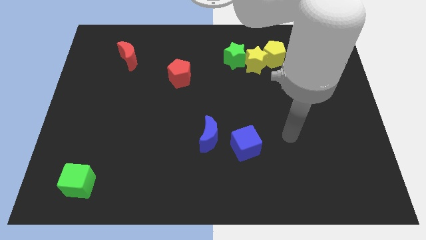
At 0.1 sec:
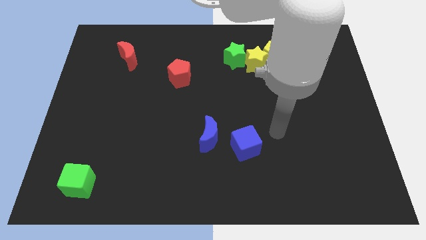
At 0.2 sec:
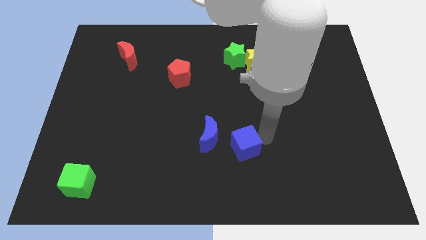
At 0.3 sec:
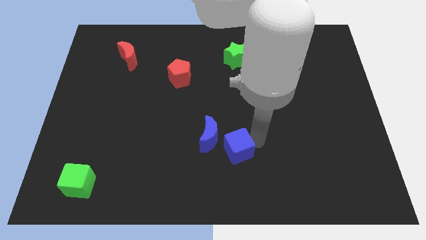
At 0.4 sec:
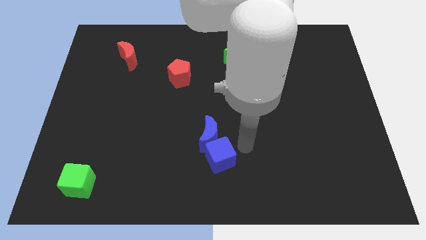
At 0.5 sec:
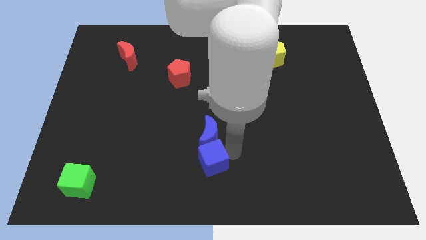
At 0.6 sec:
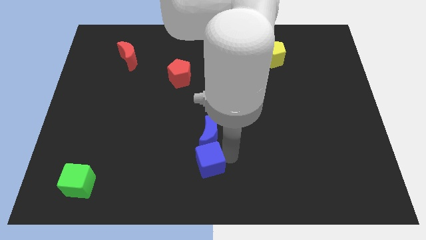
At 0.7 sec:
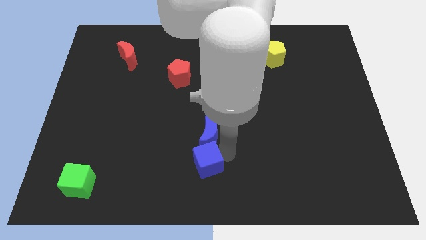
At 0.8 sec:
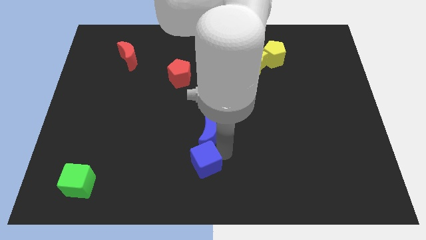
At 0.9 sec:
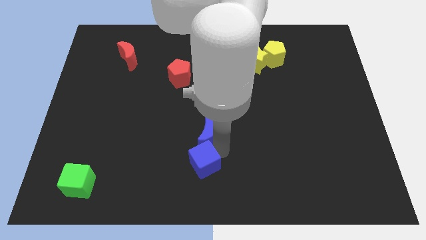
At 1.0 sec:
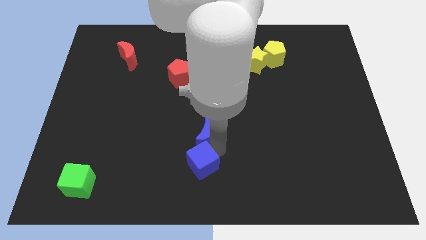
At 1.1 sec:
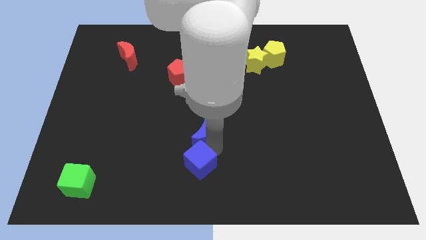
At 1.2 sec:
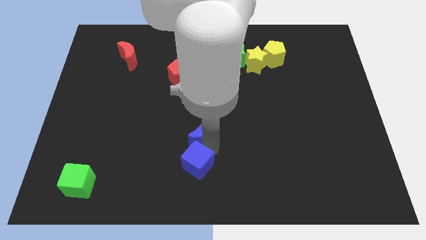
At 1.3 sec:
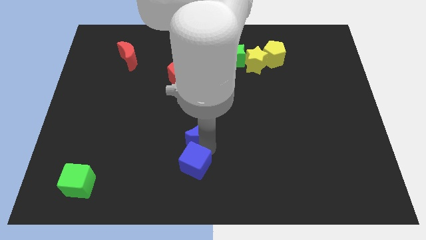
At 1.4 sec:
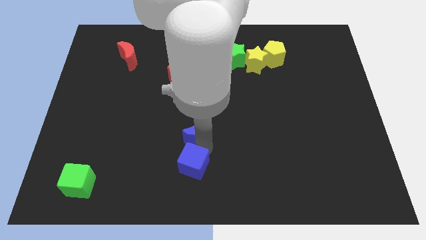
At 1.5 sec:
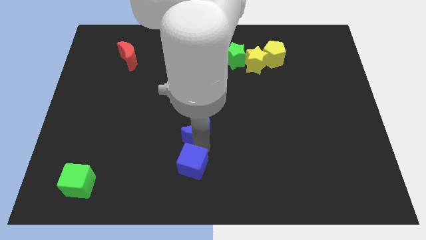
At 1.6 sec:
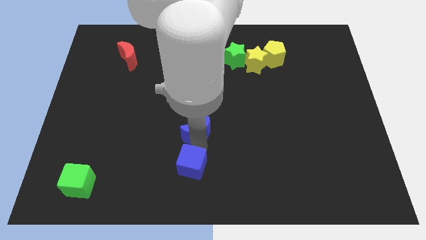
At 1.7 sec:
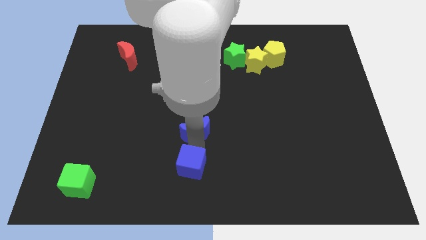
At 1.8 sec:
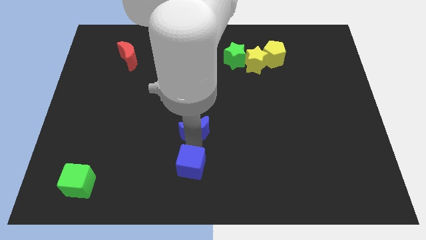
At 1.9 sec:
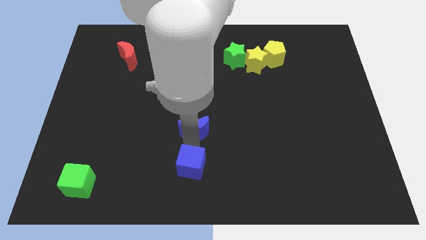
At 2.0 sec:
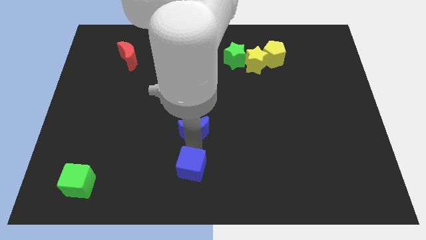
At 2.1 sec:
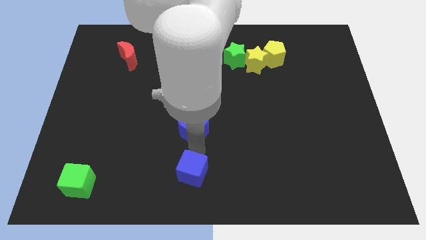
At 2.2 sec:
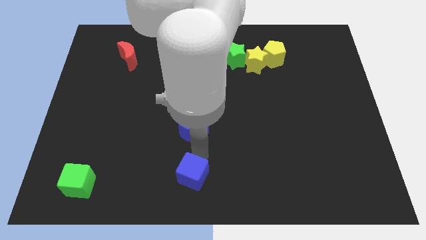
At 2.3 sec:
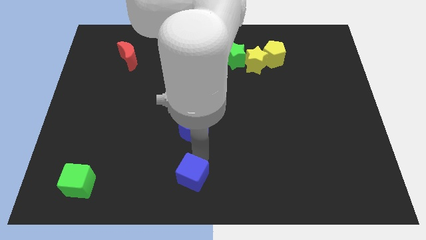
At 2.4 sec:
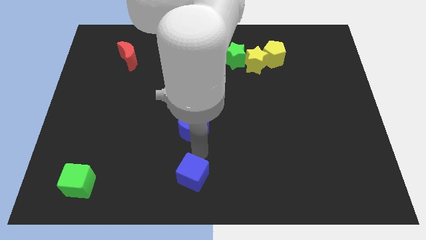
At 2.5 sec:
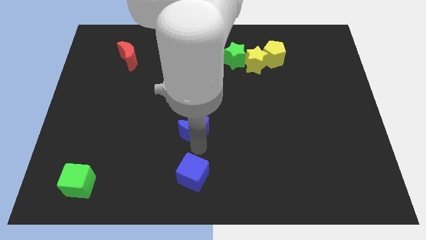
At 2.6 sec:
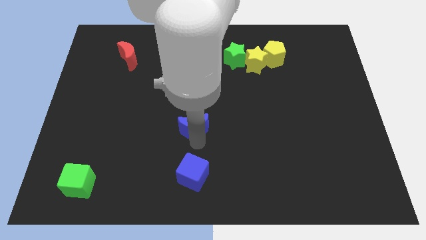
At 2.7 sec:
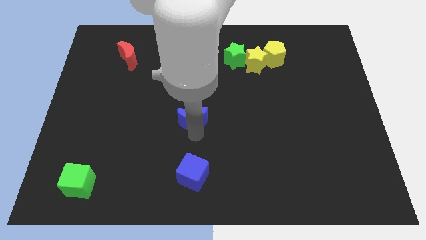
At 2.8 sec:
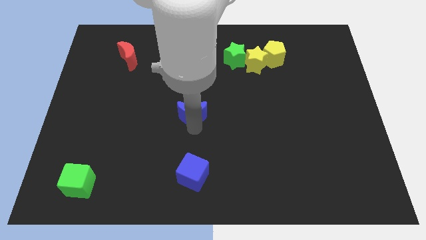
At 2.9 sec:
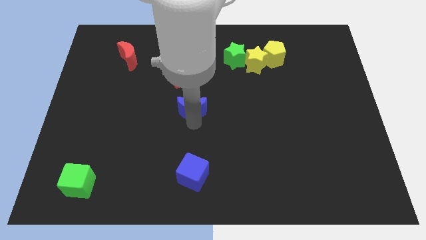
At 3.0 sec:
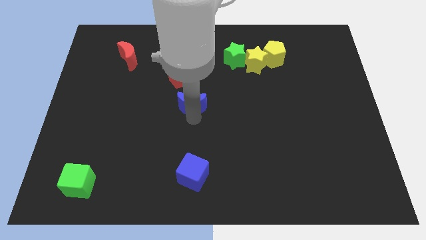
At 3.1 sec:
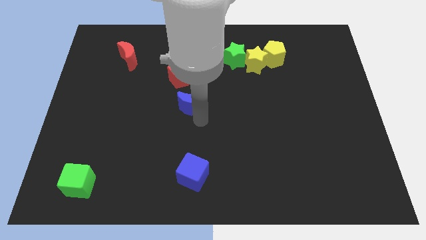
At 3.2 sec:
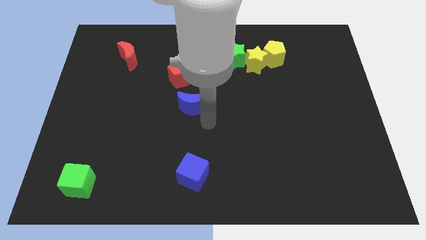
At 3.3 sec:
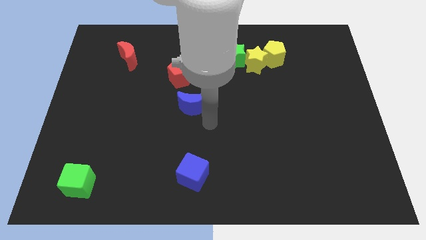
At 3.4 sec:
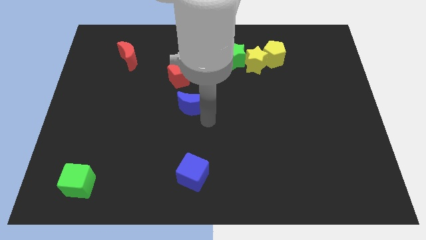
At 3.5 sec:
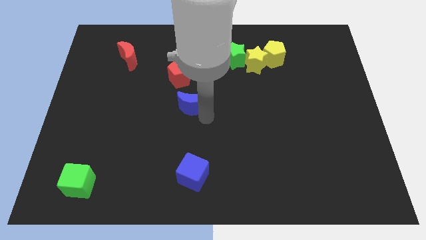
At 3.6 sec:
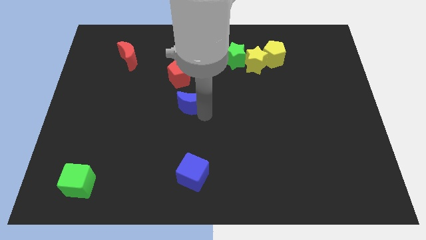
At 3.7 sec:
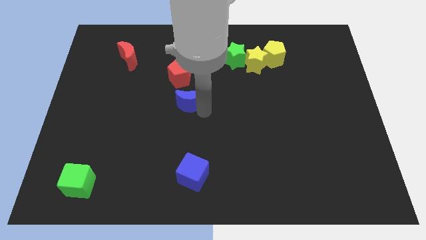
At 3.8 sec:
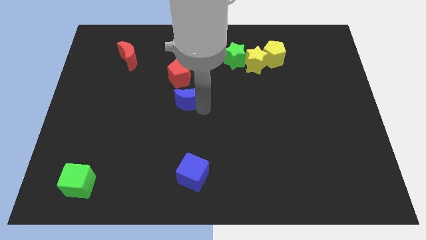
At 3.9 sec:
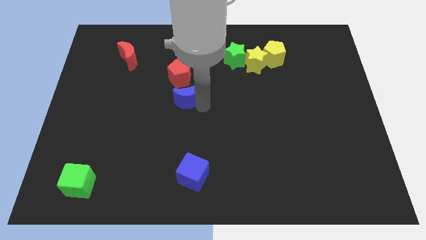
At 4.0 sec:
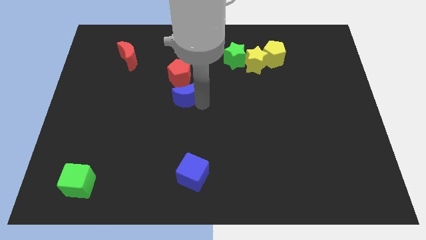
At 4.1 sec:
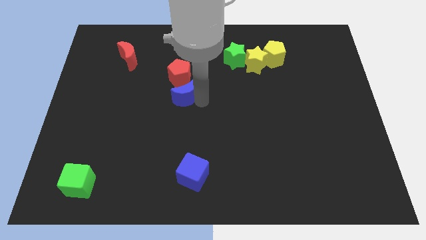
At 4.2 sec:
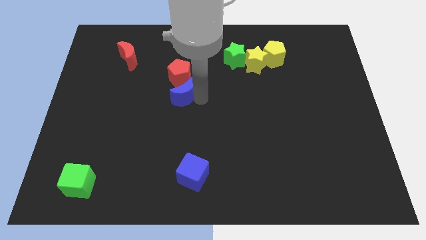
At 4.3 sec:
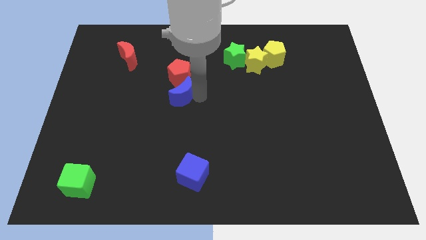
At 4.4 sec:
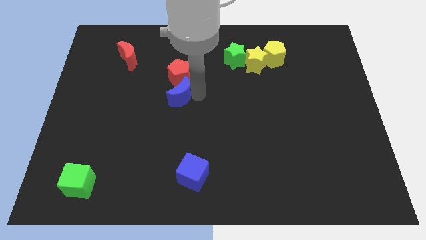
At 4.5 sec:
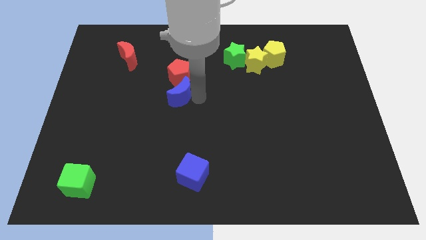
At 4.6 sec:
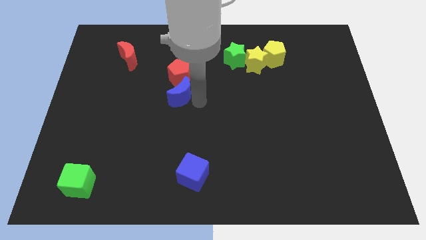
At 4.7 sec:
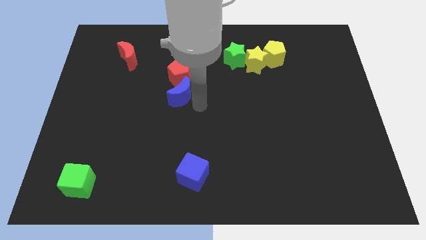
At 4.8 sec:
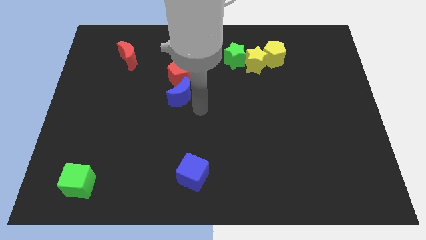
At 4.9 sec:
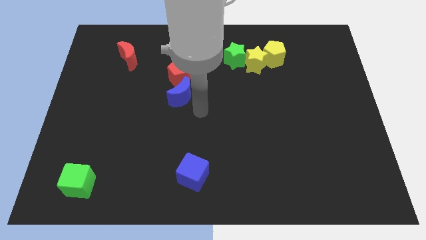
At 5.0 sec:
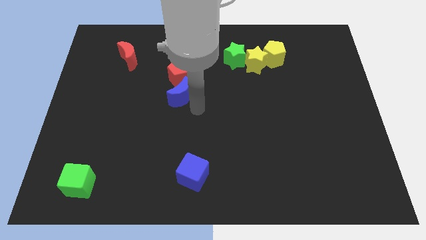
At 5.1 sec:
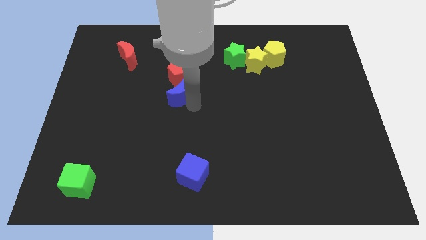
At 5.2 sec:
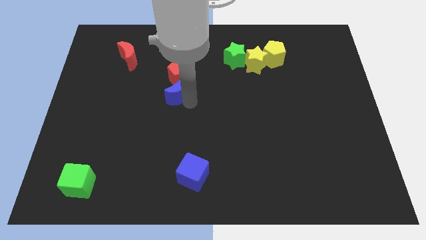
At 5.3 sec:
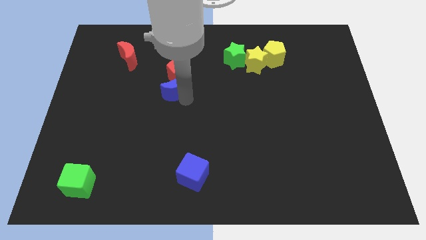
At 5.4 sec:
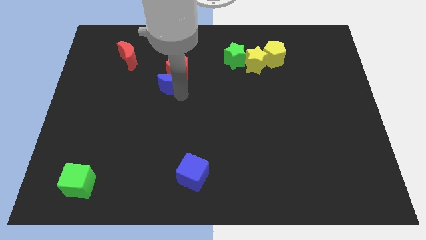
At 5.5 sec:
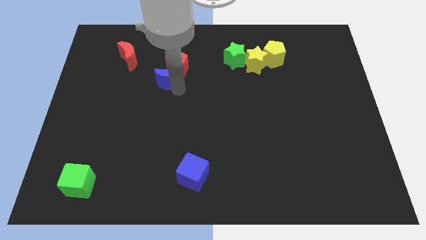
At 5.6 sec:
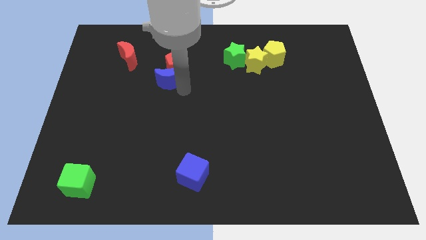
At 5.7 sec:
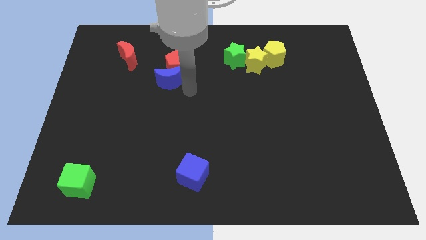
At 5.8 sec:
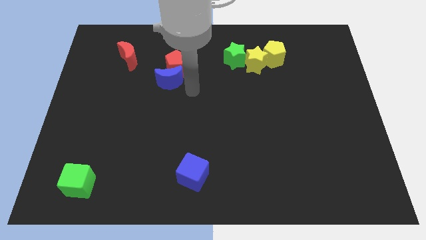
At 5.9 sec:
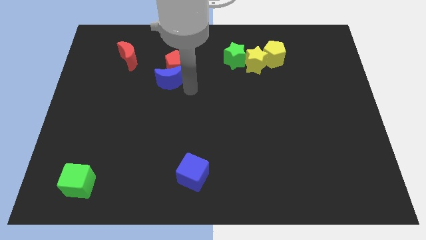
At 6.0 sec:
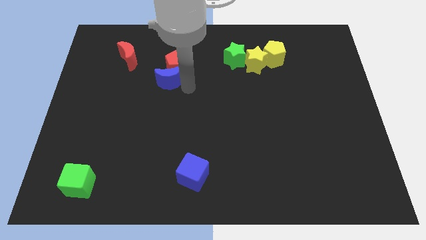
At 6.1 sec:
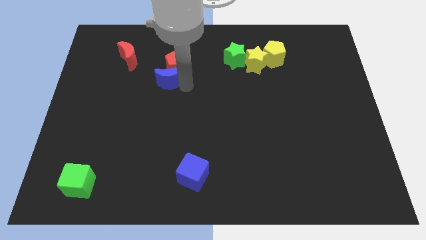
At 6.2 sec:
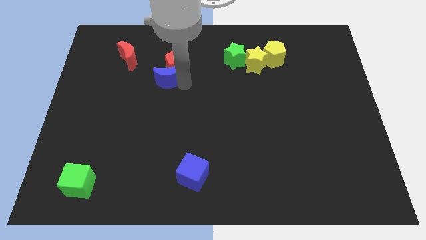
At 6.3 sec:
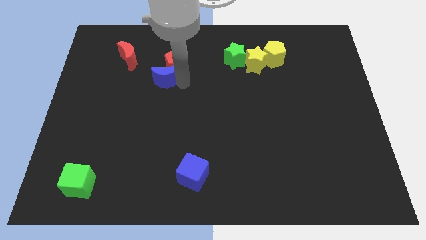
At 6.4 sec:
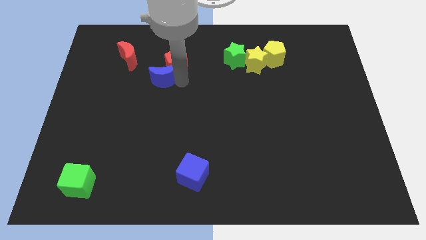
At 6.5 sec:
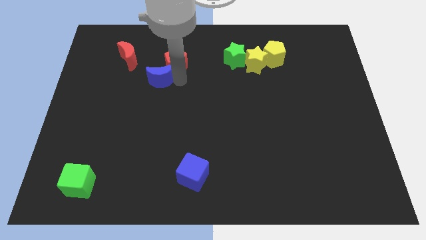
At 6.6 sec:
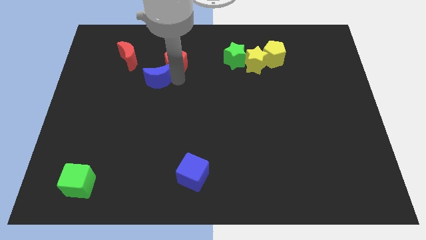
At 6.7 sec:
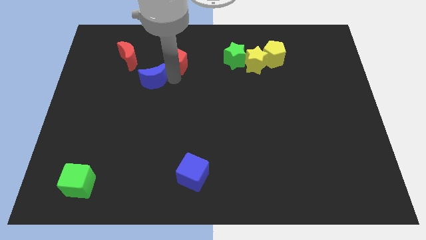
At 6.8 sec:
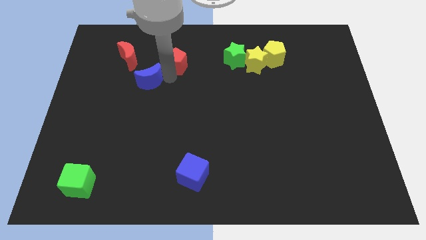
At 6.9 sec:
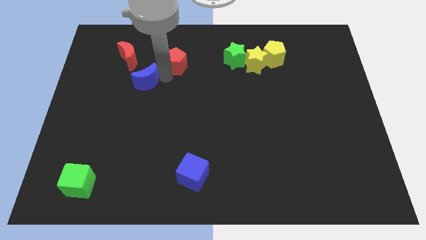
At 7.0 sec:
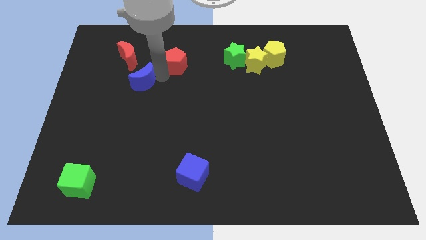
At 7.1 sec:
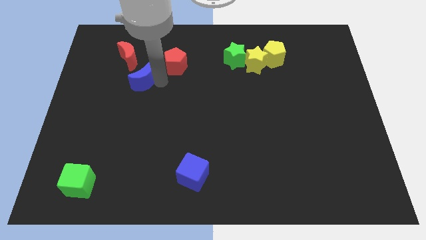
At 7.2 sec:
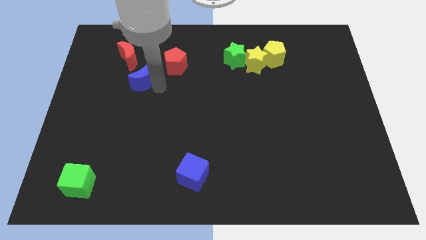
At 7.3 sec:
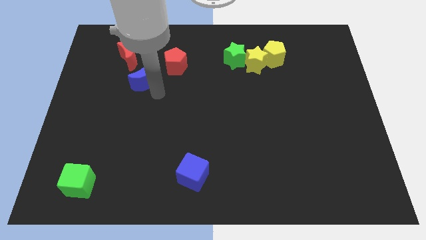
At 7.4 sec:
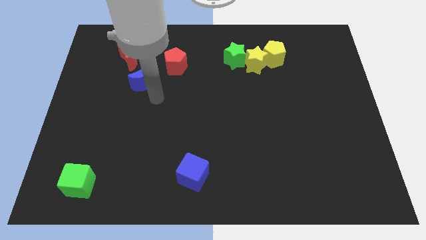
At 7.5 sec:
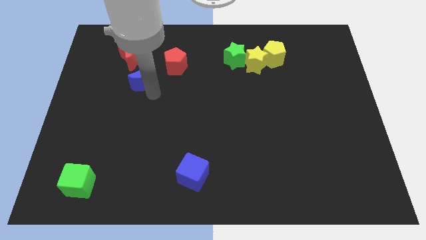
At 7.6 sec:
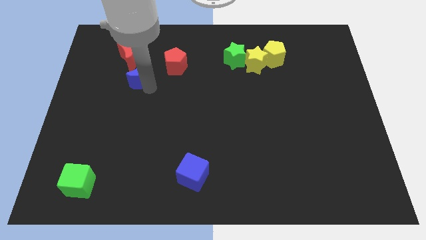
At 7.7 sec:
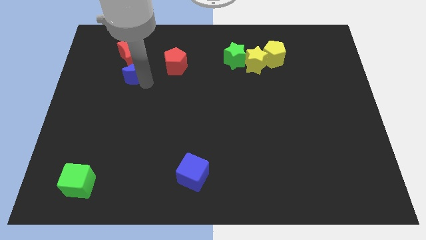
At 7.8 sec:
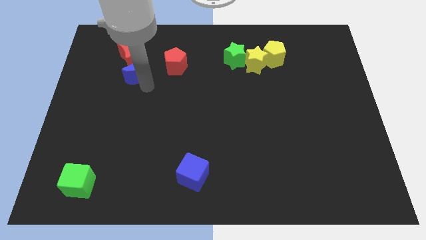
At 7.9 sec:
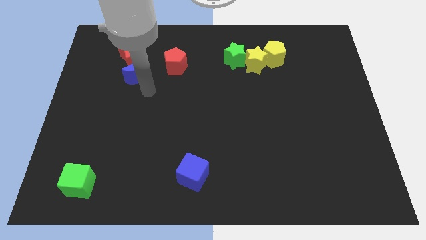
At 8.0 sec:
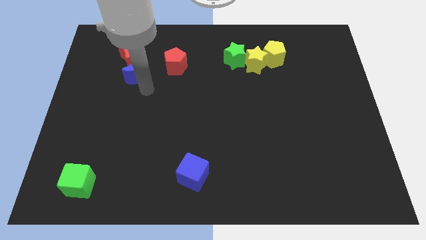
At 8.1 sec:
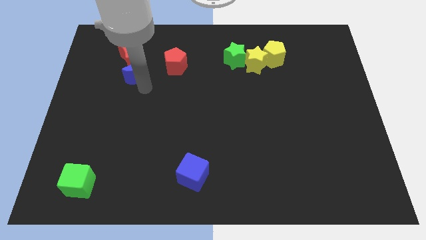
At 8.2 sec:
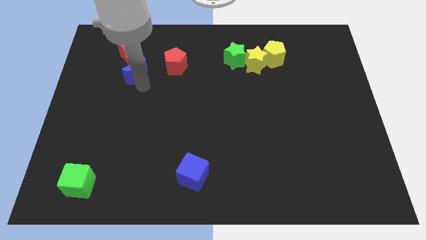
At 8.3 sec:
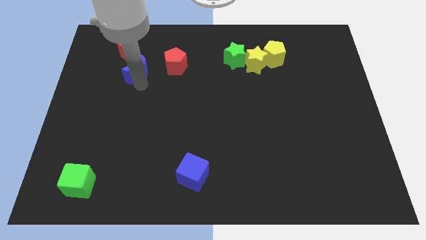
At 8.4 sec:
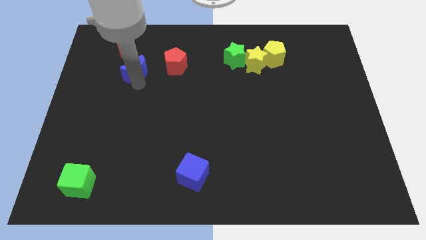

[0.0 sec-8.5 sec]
put the blue moon to the red moon
